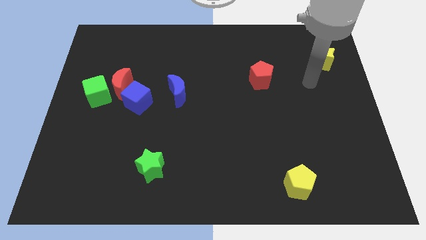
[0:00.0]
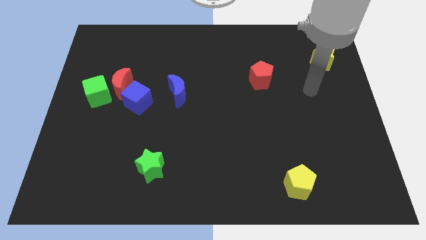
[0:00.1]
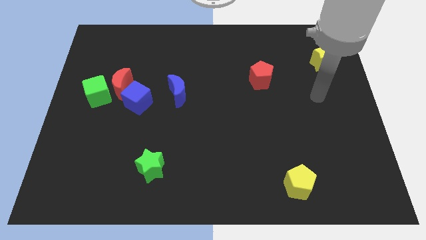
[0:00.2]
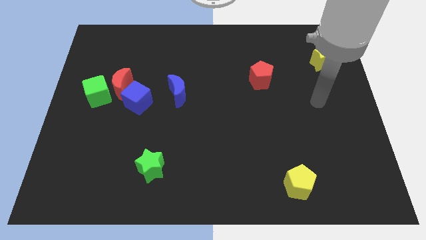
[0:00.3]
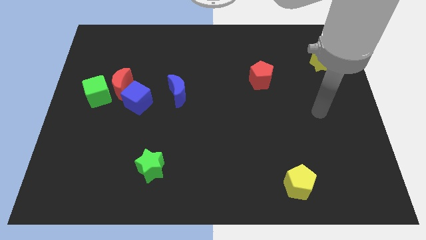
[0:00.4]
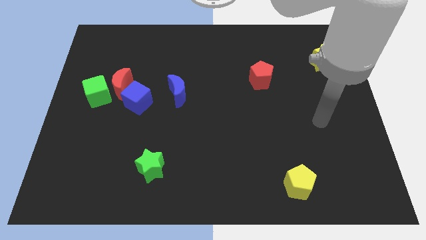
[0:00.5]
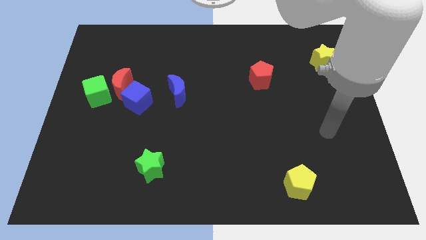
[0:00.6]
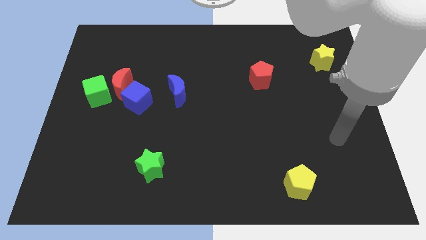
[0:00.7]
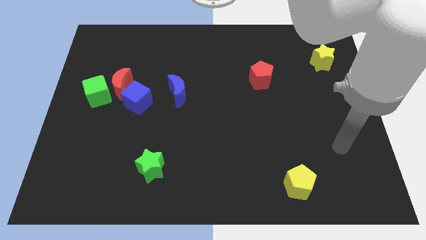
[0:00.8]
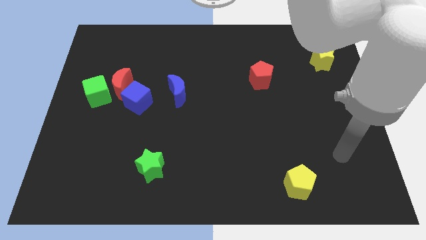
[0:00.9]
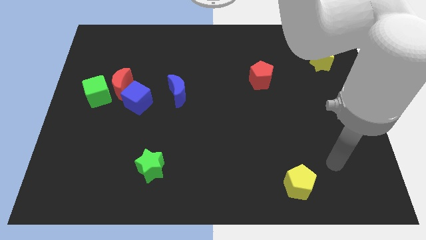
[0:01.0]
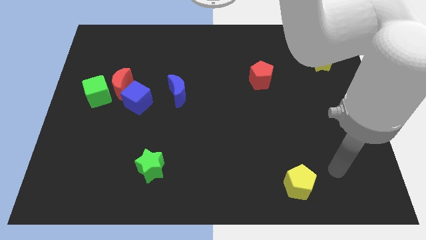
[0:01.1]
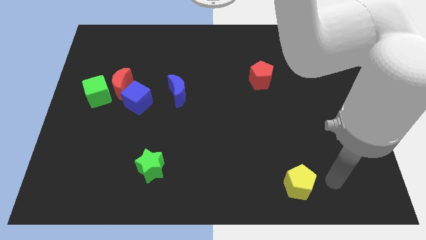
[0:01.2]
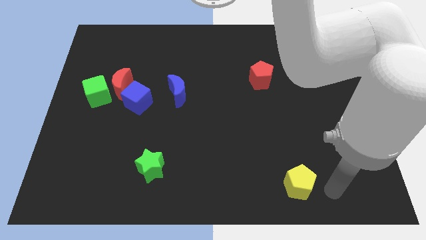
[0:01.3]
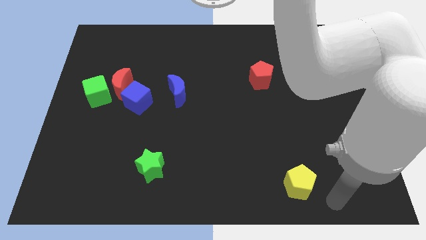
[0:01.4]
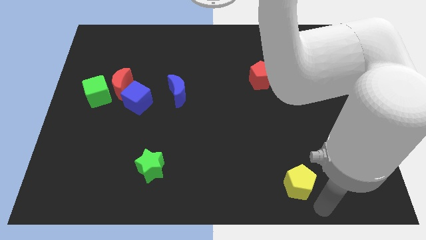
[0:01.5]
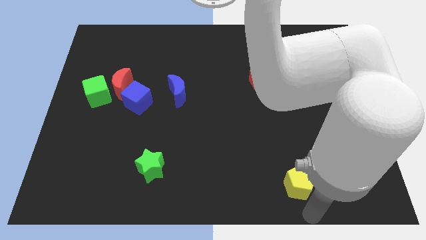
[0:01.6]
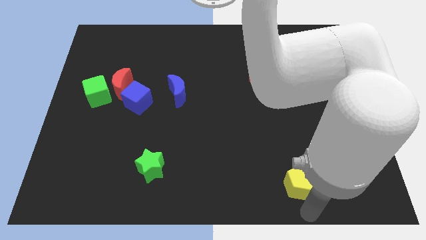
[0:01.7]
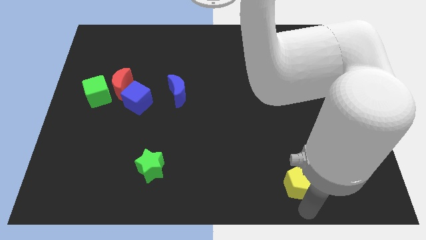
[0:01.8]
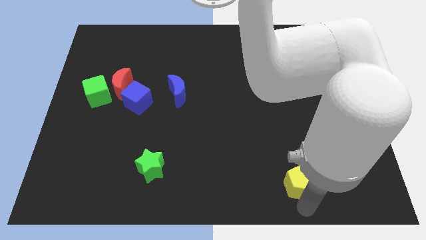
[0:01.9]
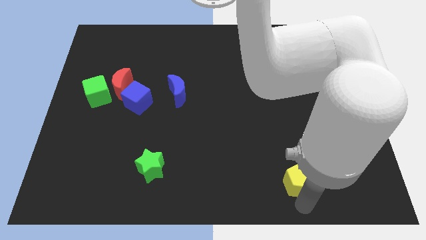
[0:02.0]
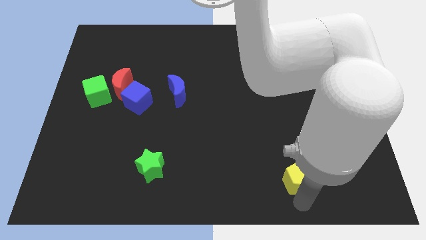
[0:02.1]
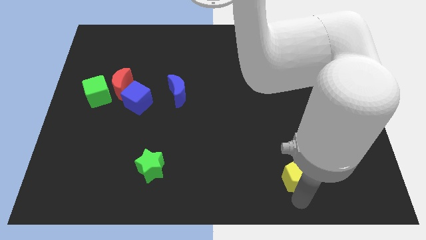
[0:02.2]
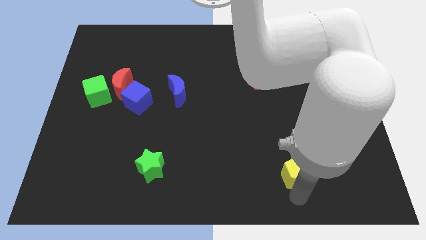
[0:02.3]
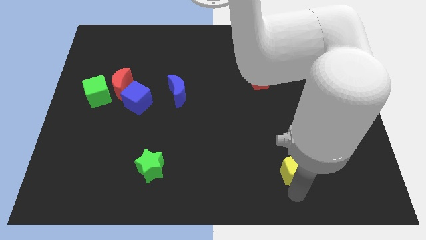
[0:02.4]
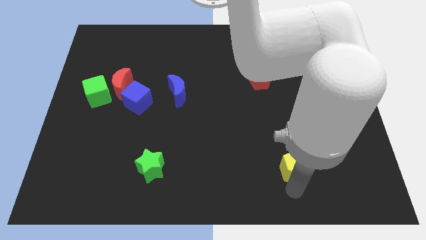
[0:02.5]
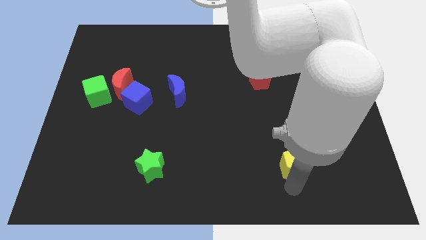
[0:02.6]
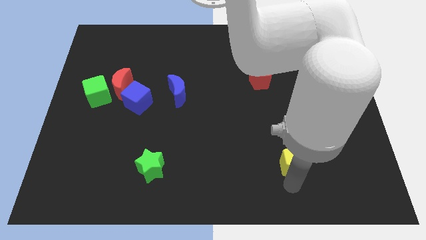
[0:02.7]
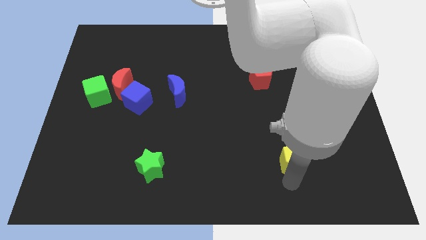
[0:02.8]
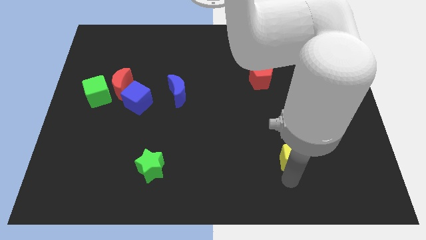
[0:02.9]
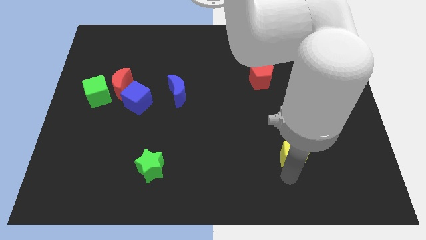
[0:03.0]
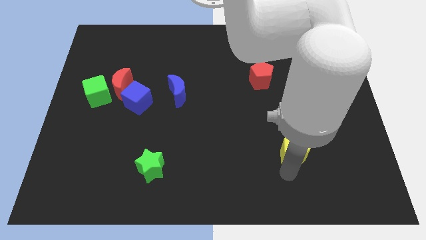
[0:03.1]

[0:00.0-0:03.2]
slightly push the yellow pentagon upwards

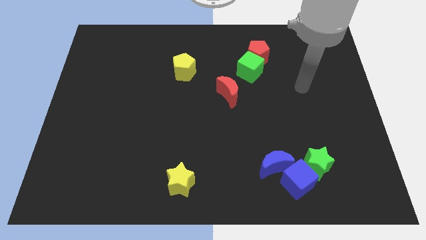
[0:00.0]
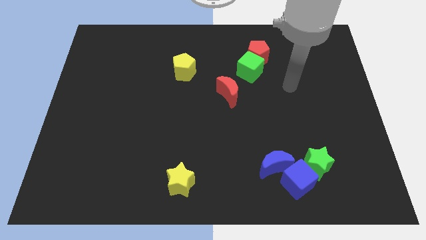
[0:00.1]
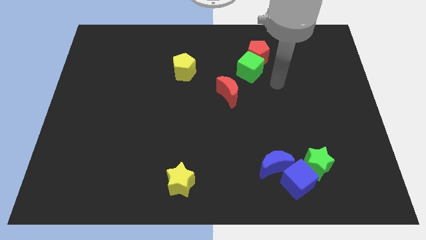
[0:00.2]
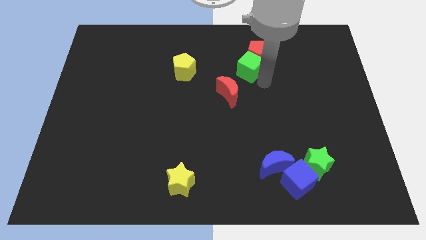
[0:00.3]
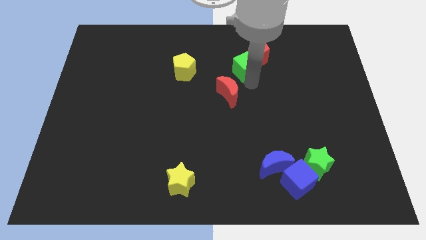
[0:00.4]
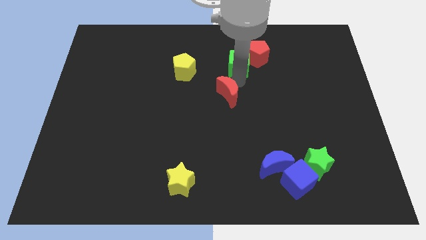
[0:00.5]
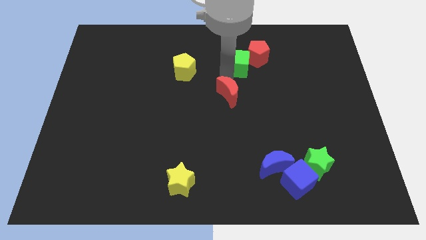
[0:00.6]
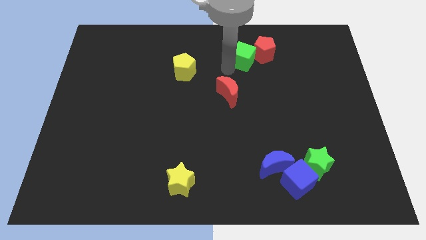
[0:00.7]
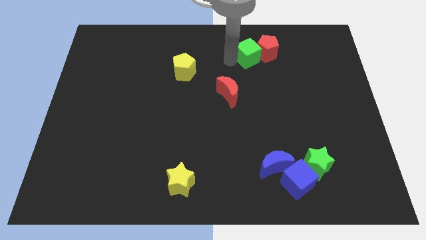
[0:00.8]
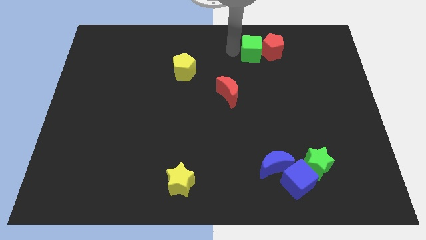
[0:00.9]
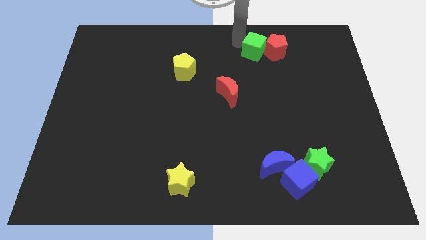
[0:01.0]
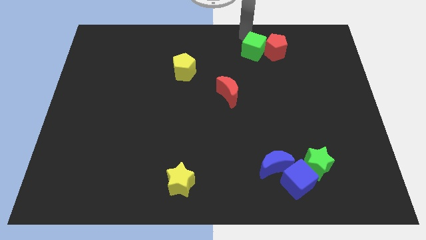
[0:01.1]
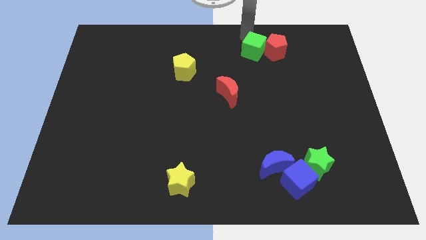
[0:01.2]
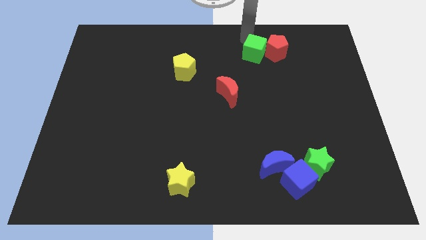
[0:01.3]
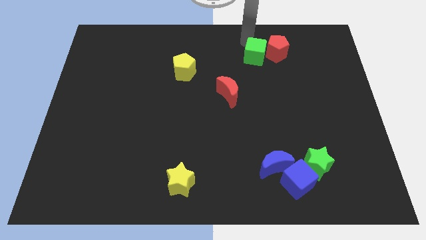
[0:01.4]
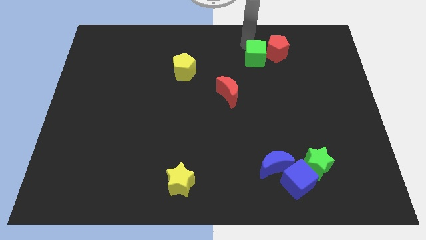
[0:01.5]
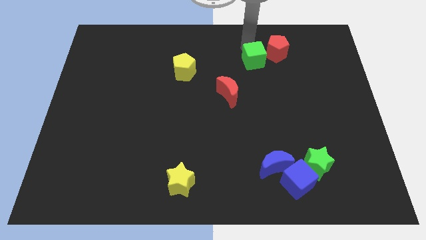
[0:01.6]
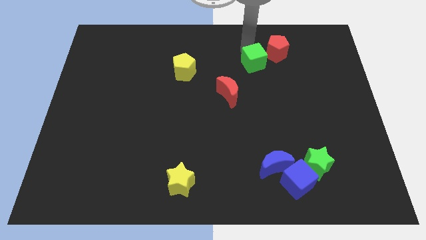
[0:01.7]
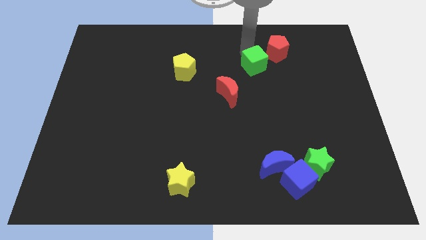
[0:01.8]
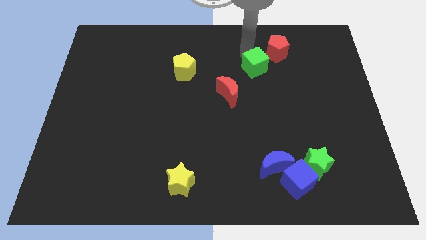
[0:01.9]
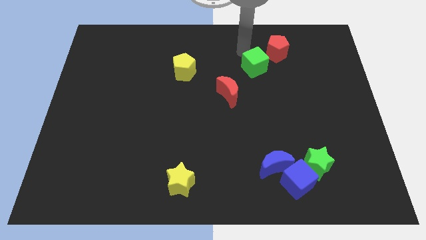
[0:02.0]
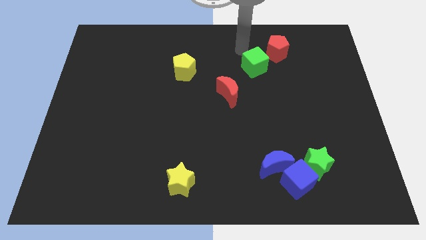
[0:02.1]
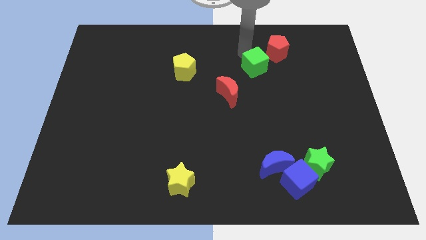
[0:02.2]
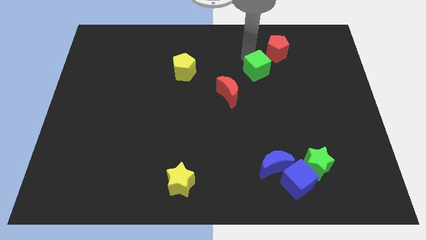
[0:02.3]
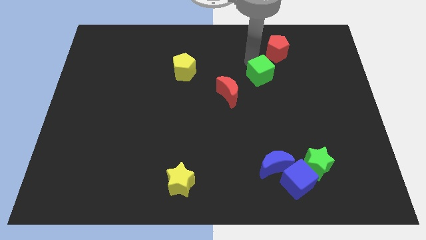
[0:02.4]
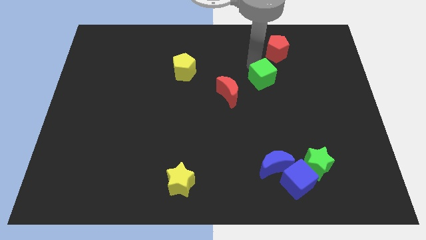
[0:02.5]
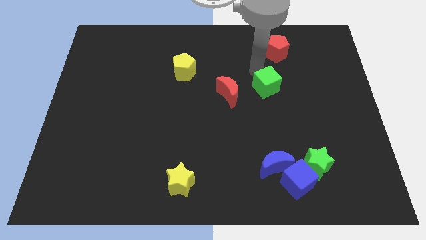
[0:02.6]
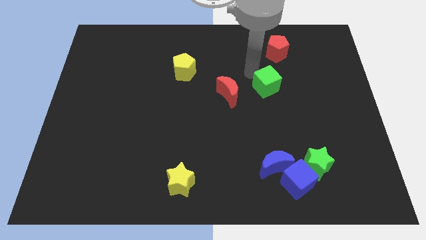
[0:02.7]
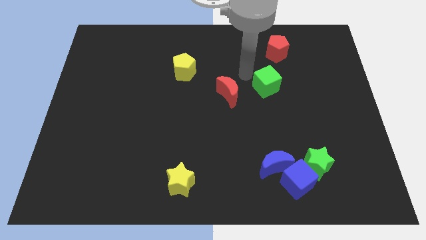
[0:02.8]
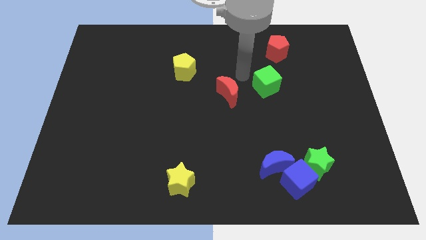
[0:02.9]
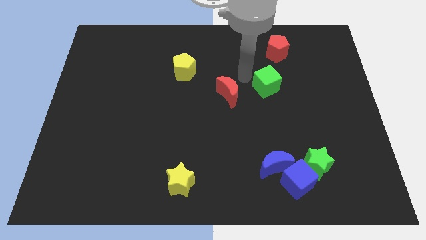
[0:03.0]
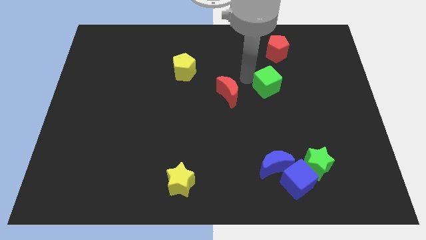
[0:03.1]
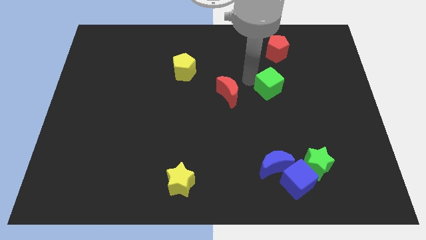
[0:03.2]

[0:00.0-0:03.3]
push the green cube a little down and right

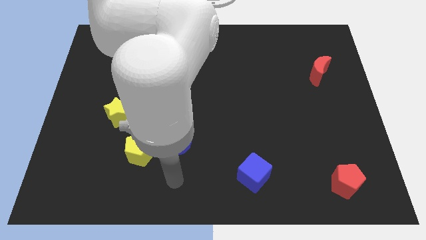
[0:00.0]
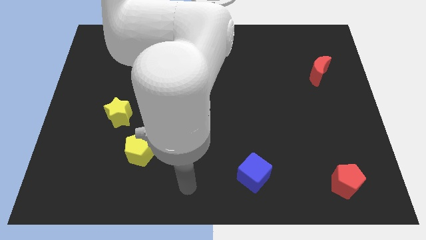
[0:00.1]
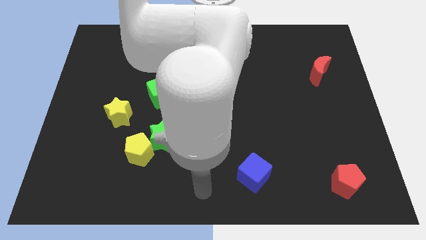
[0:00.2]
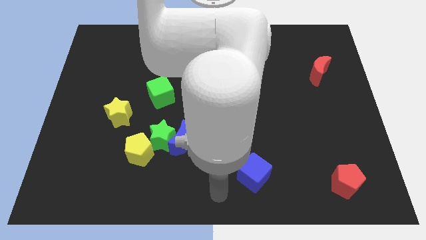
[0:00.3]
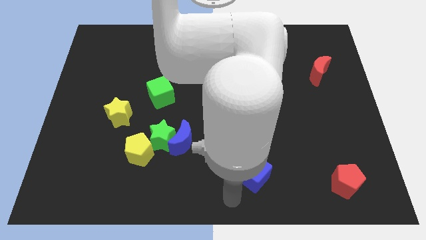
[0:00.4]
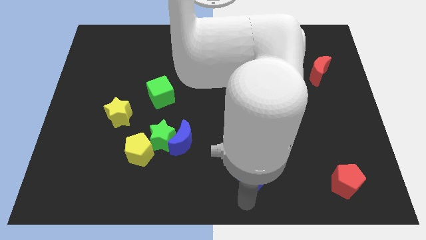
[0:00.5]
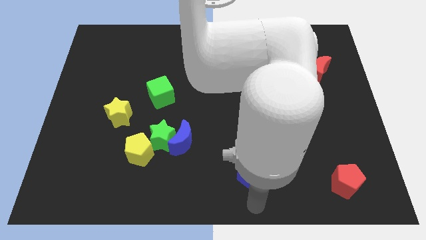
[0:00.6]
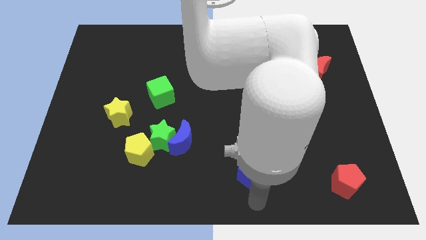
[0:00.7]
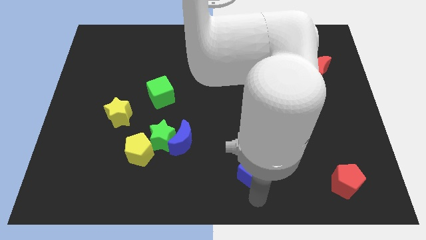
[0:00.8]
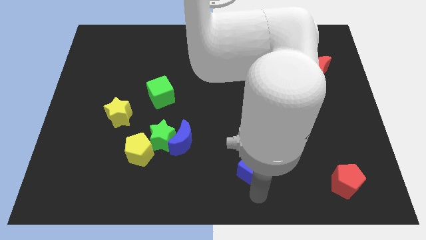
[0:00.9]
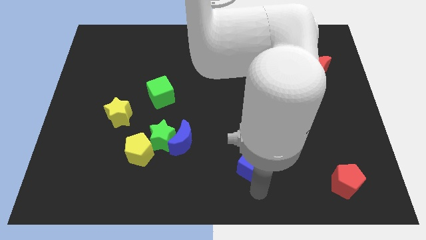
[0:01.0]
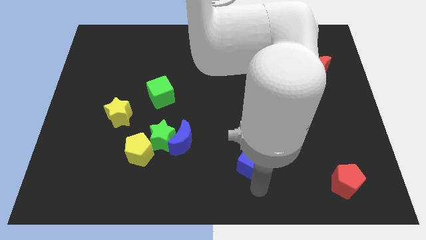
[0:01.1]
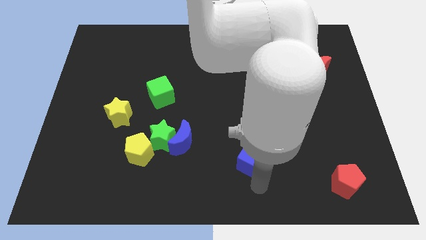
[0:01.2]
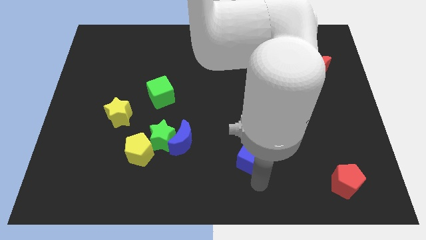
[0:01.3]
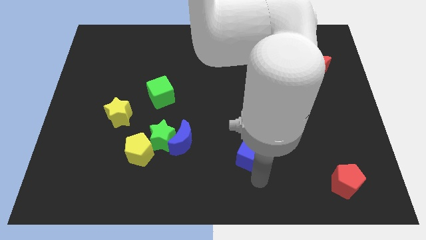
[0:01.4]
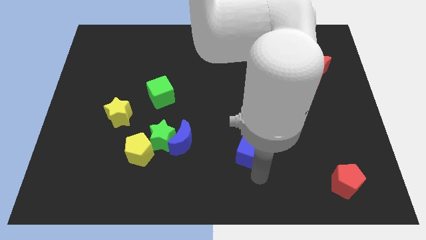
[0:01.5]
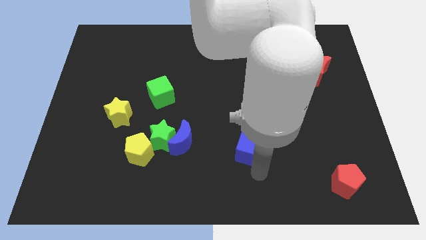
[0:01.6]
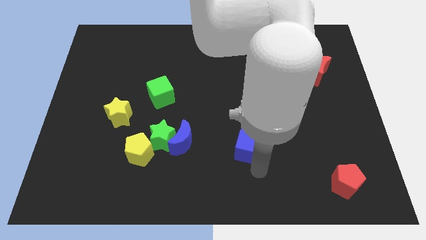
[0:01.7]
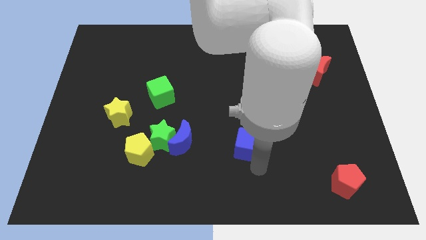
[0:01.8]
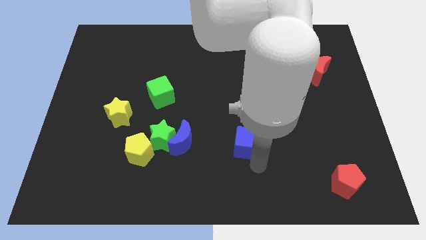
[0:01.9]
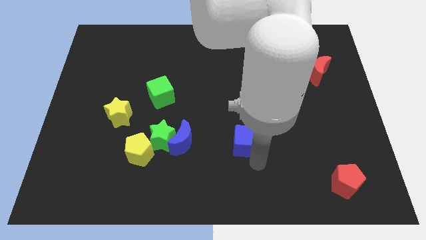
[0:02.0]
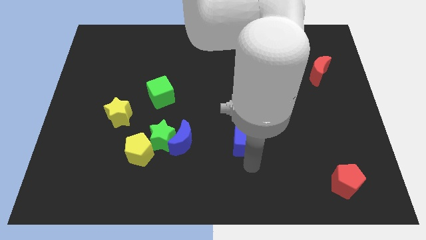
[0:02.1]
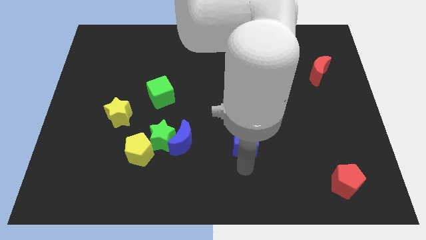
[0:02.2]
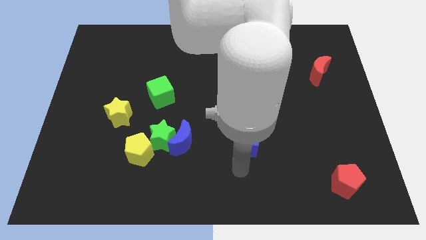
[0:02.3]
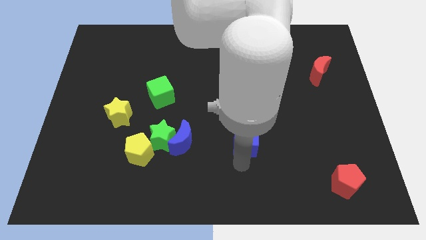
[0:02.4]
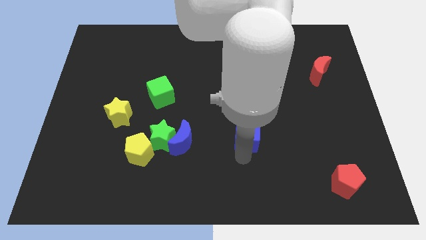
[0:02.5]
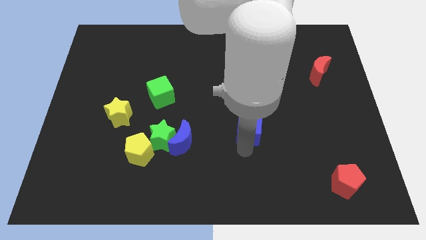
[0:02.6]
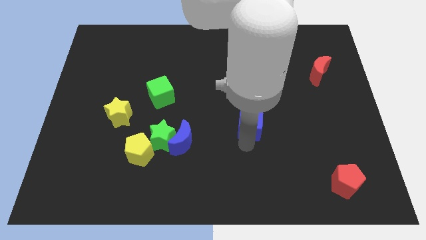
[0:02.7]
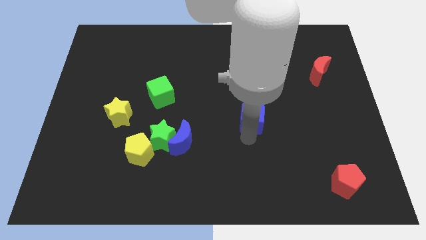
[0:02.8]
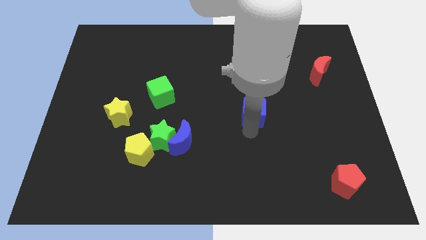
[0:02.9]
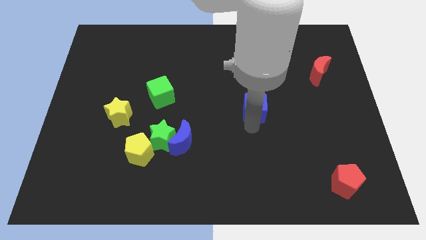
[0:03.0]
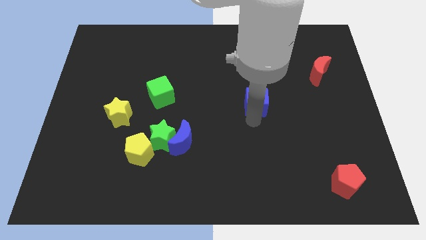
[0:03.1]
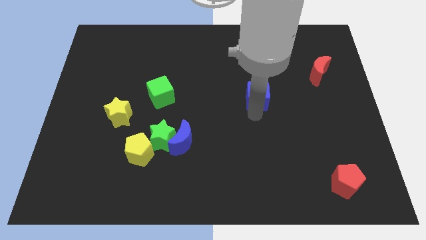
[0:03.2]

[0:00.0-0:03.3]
push the blue cube upwards
